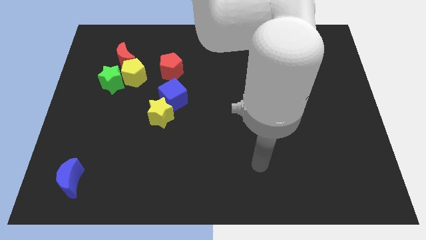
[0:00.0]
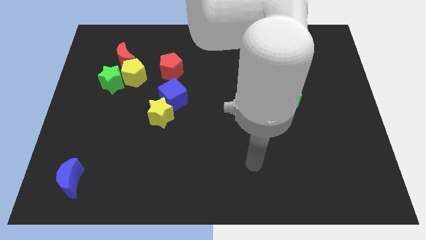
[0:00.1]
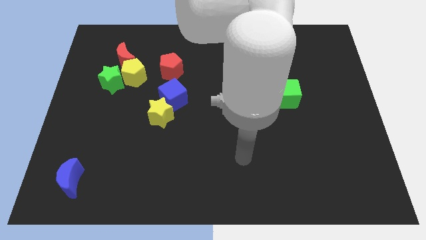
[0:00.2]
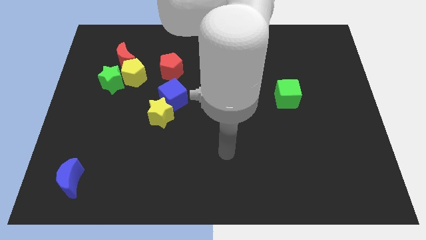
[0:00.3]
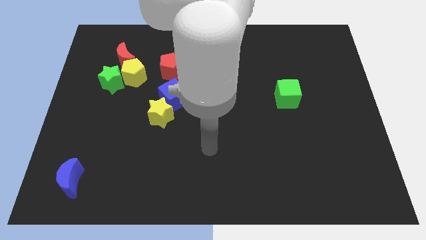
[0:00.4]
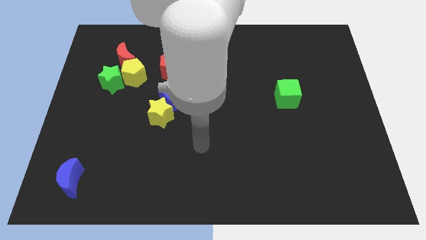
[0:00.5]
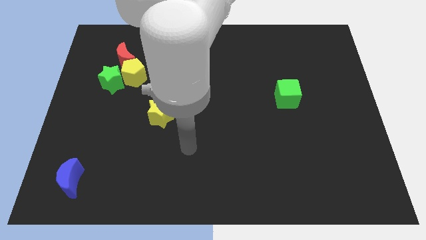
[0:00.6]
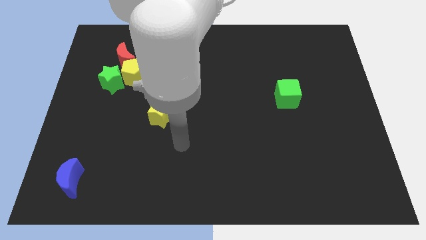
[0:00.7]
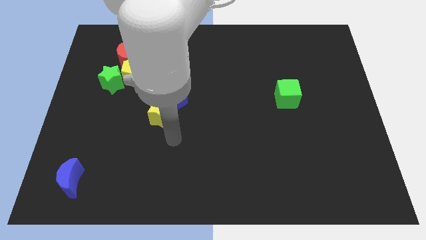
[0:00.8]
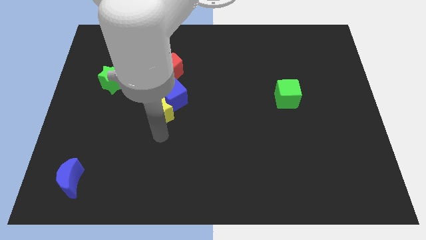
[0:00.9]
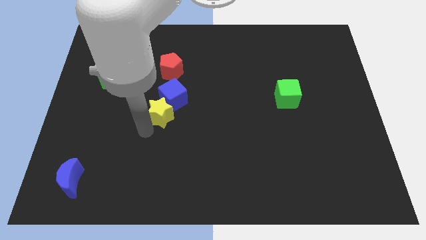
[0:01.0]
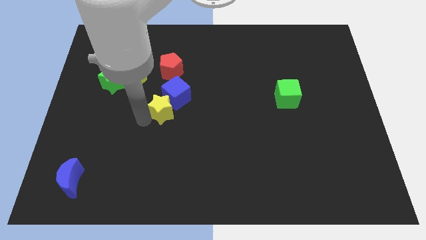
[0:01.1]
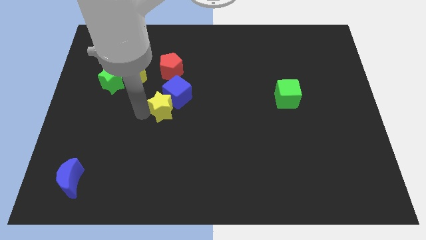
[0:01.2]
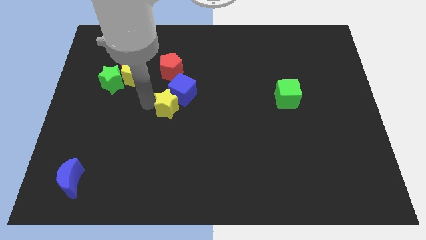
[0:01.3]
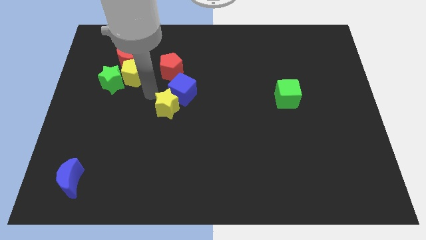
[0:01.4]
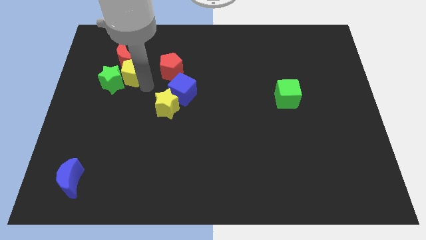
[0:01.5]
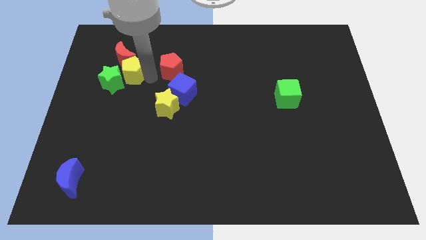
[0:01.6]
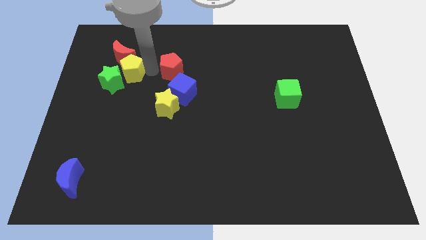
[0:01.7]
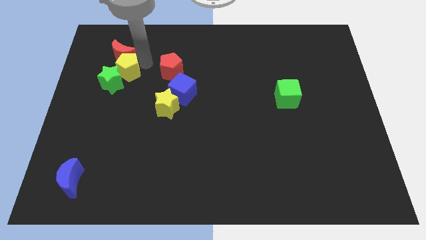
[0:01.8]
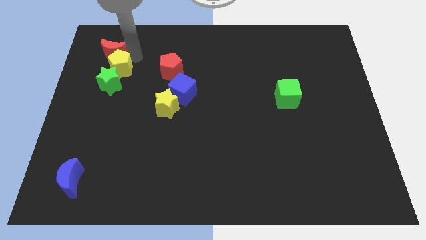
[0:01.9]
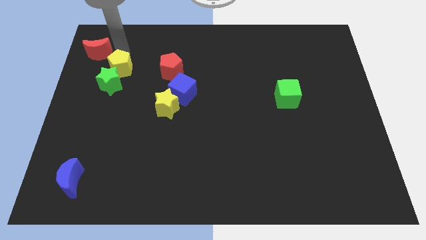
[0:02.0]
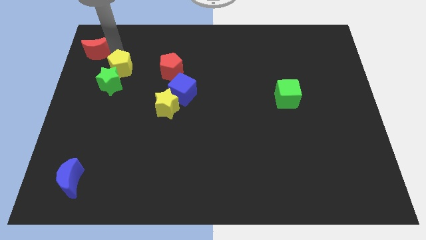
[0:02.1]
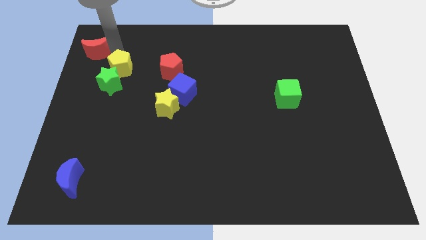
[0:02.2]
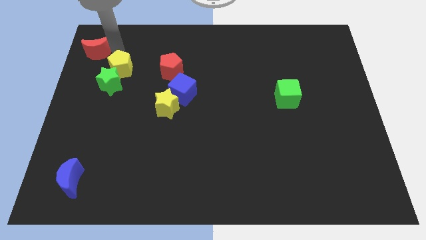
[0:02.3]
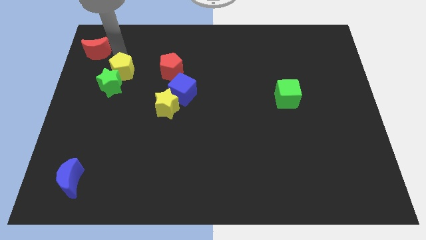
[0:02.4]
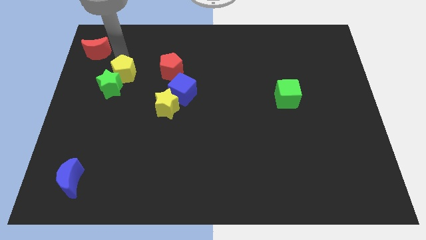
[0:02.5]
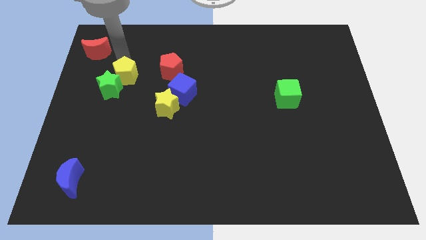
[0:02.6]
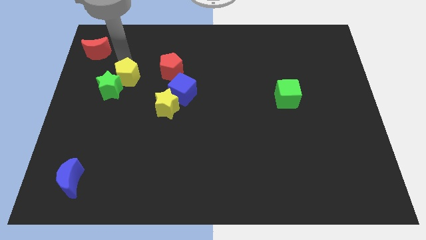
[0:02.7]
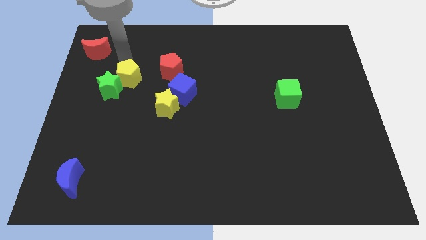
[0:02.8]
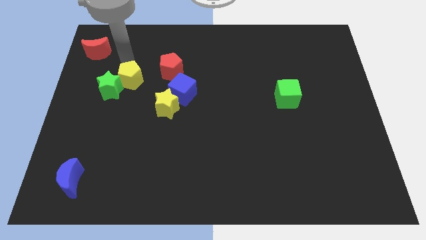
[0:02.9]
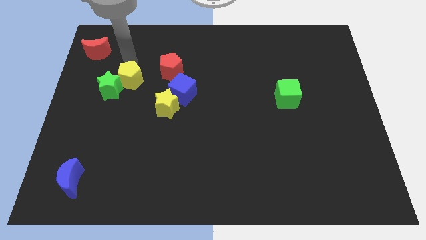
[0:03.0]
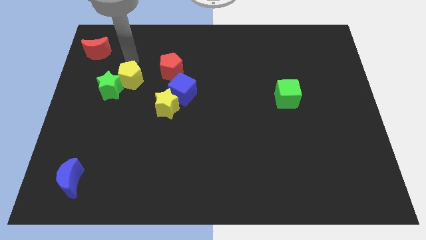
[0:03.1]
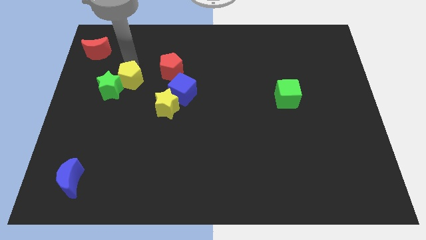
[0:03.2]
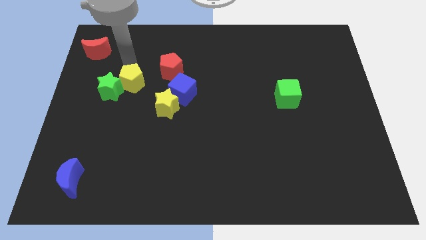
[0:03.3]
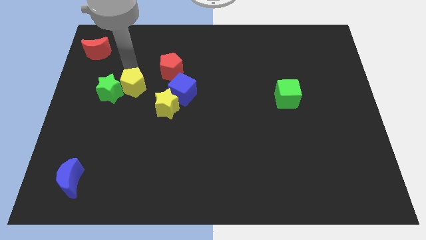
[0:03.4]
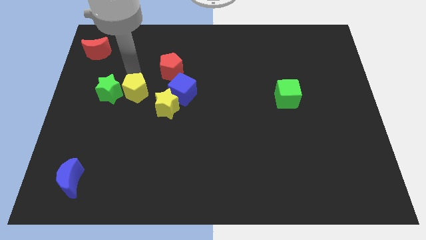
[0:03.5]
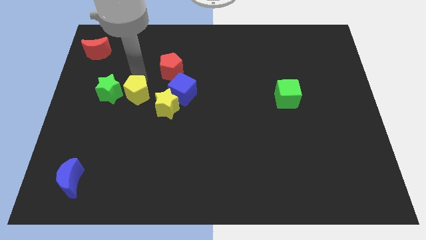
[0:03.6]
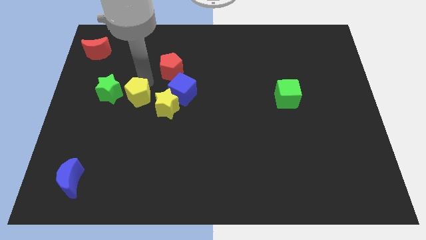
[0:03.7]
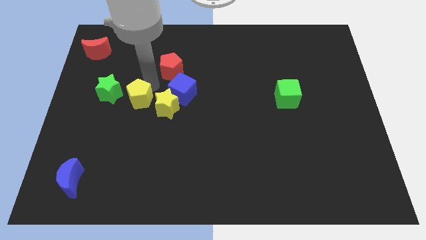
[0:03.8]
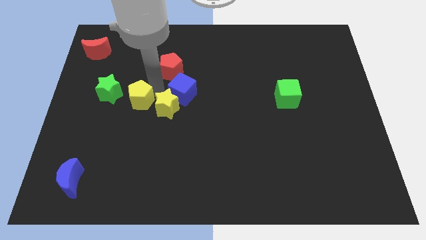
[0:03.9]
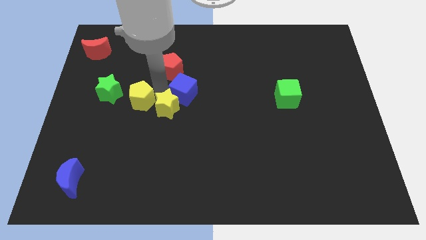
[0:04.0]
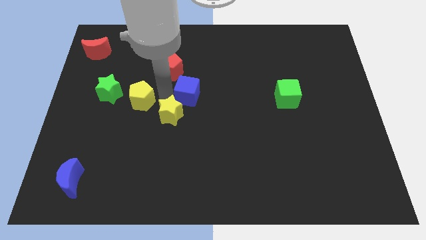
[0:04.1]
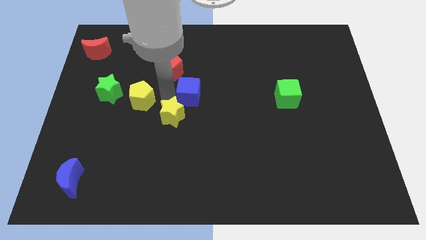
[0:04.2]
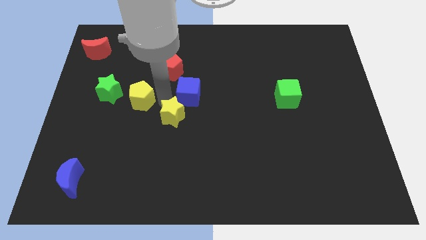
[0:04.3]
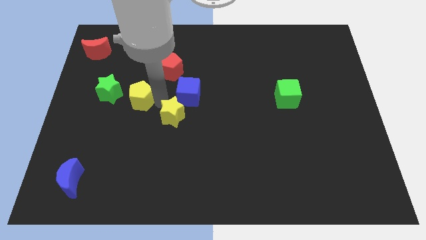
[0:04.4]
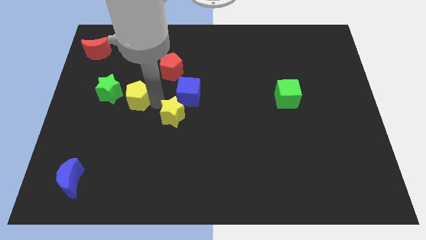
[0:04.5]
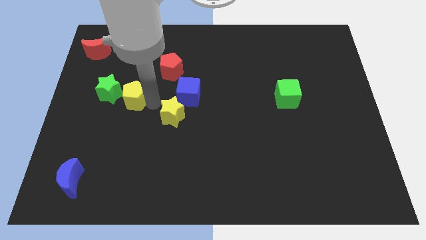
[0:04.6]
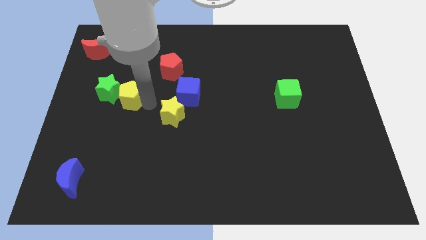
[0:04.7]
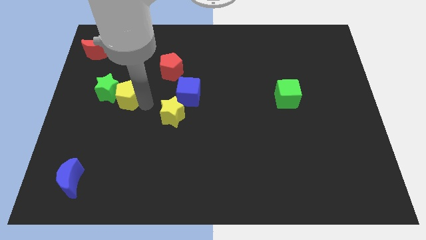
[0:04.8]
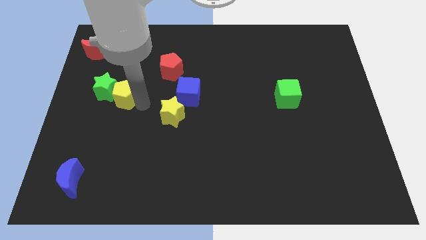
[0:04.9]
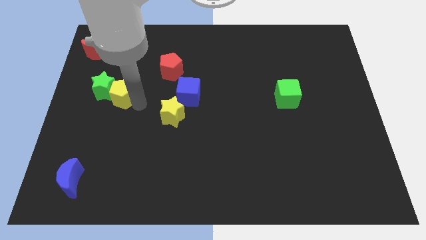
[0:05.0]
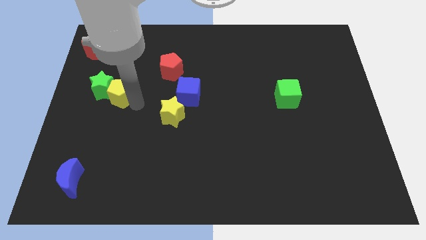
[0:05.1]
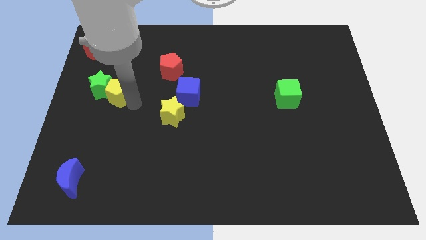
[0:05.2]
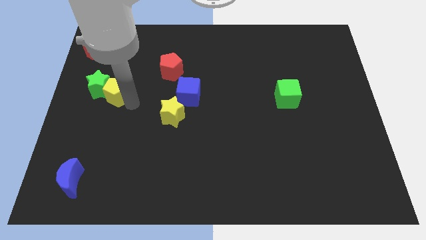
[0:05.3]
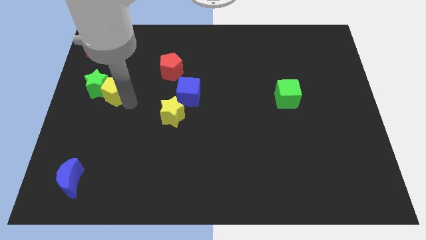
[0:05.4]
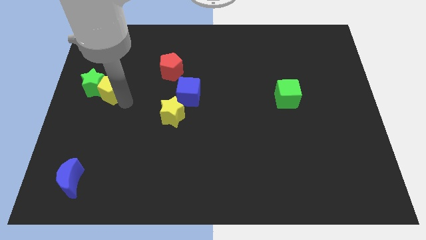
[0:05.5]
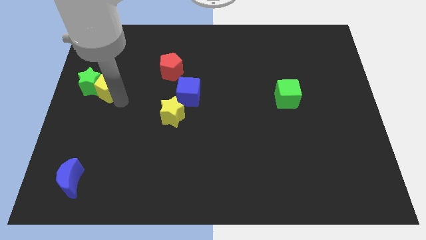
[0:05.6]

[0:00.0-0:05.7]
move the yellow pentagon to the center left
